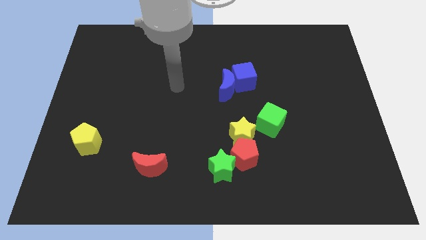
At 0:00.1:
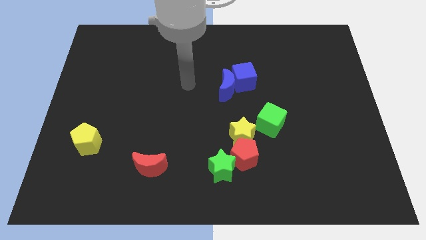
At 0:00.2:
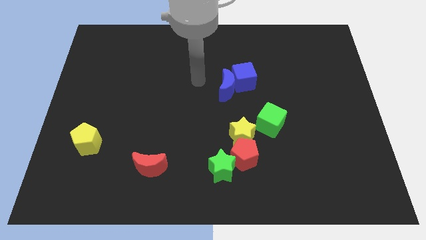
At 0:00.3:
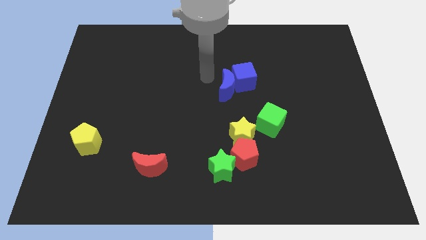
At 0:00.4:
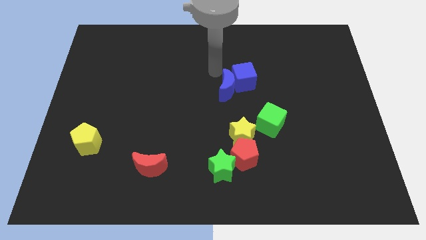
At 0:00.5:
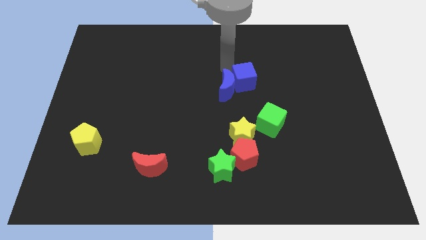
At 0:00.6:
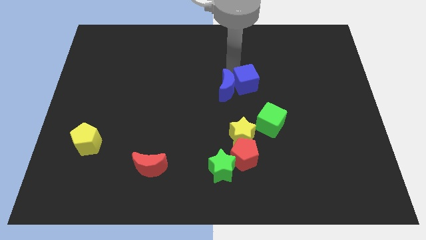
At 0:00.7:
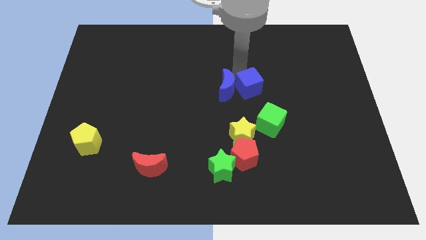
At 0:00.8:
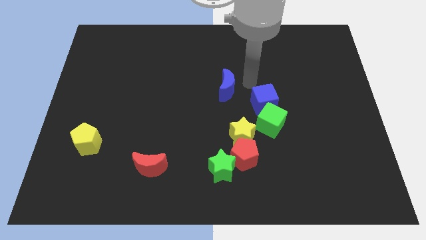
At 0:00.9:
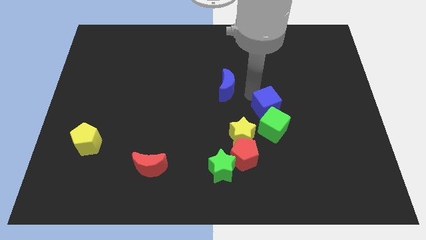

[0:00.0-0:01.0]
move the blue moon away from the blue cube

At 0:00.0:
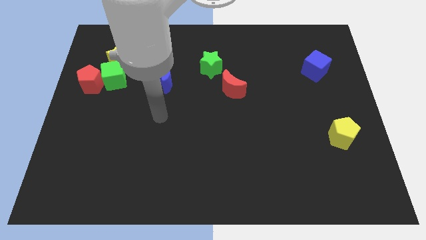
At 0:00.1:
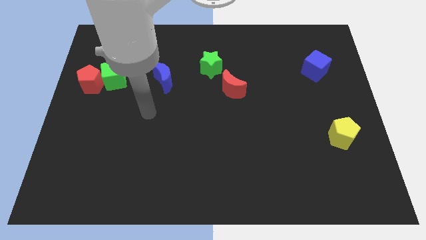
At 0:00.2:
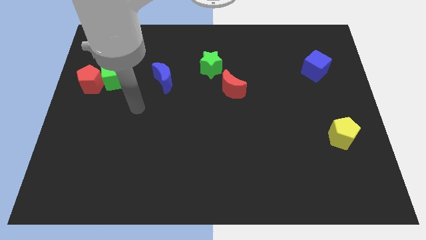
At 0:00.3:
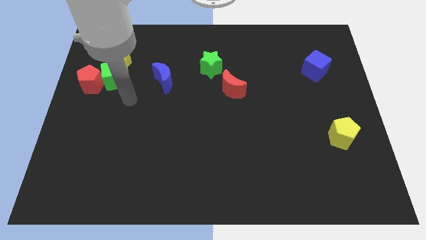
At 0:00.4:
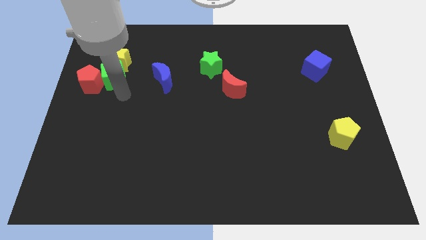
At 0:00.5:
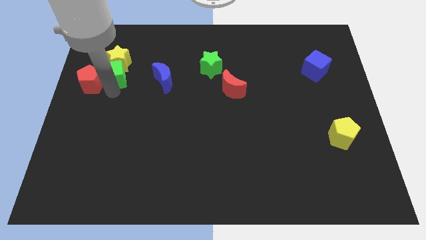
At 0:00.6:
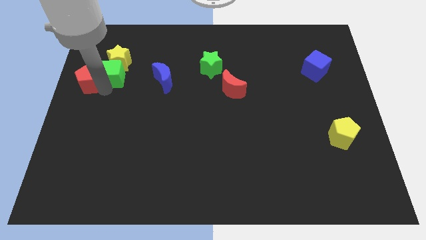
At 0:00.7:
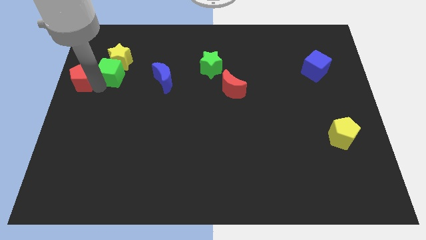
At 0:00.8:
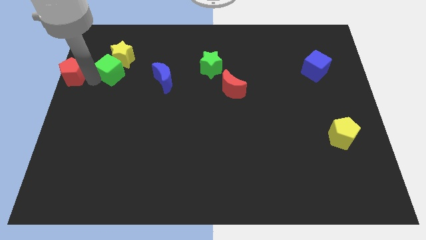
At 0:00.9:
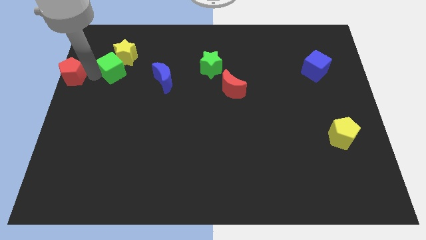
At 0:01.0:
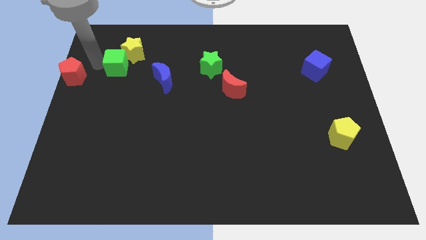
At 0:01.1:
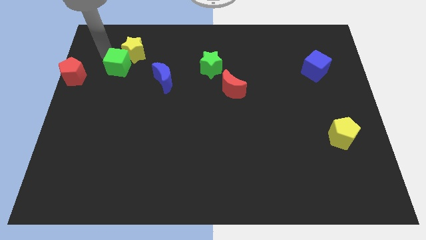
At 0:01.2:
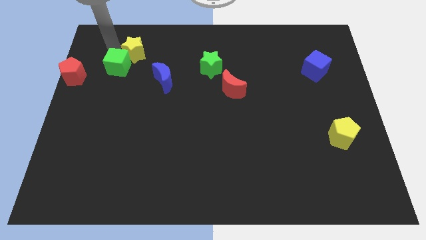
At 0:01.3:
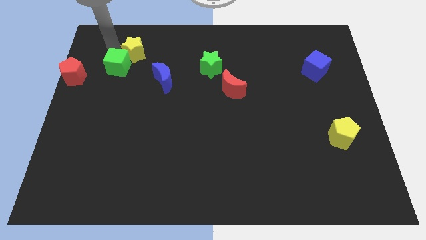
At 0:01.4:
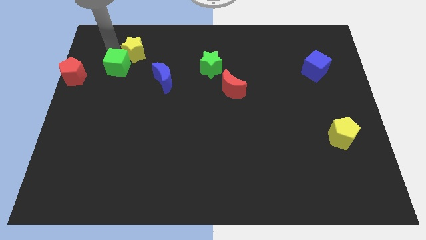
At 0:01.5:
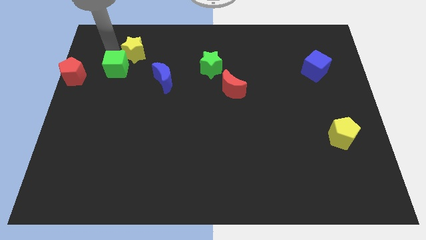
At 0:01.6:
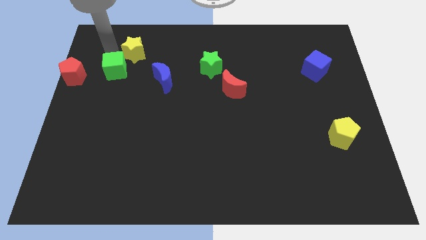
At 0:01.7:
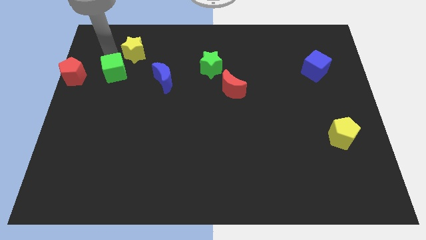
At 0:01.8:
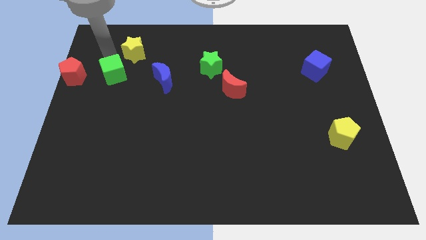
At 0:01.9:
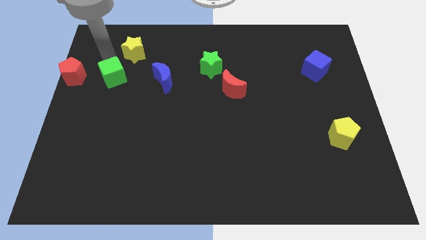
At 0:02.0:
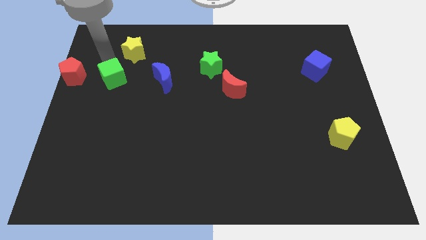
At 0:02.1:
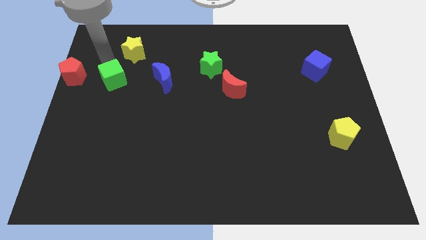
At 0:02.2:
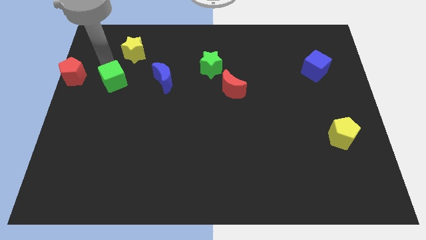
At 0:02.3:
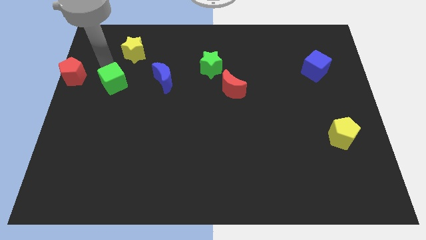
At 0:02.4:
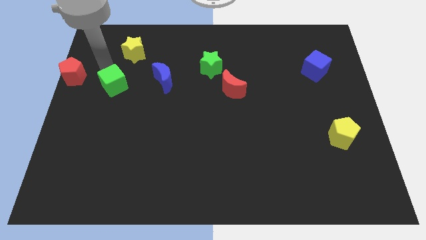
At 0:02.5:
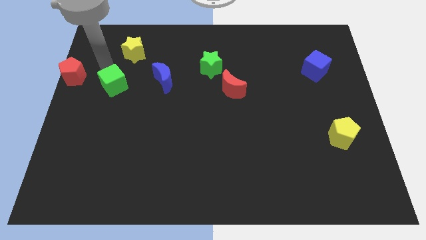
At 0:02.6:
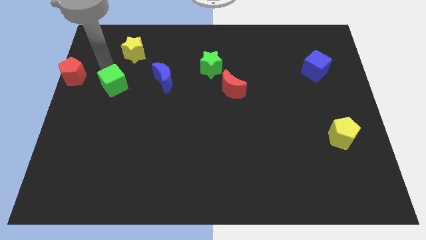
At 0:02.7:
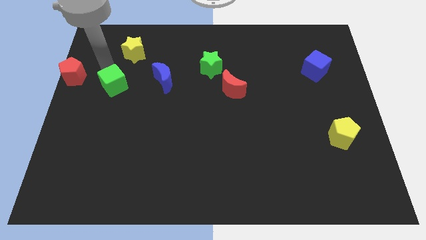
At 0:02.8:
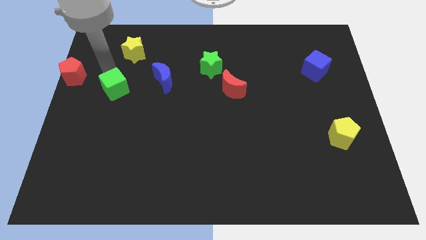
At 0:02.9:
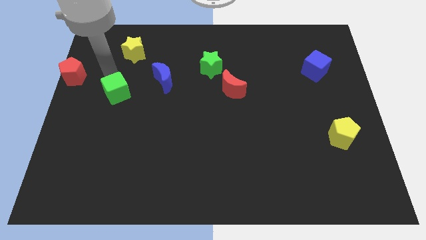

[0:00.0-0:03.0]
pull the green cube apart from the yellow star and red pentagon

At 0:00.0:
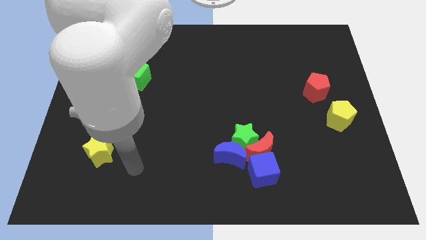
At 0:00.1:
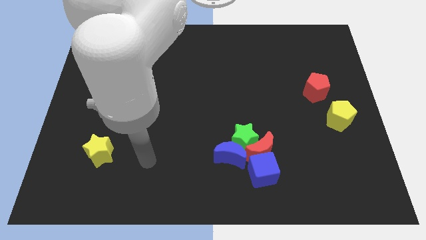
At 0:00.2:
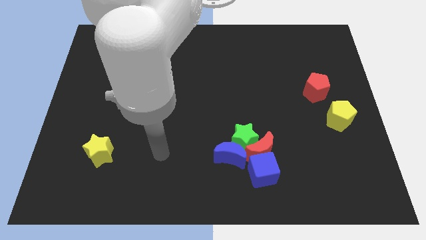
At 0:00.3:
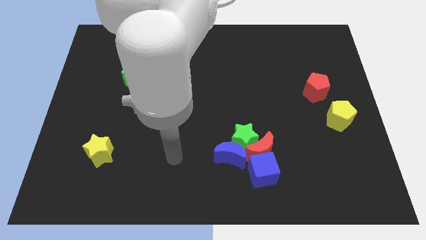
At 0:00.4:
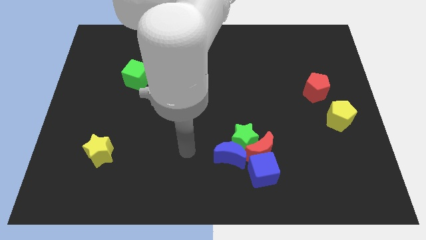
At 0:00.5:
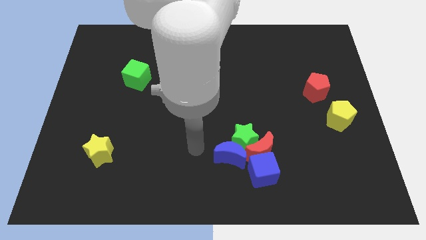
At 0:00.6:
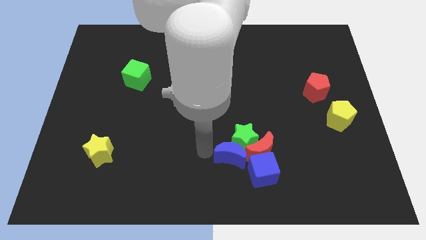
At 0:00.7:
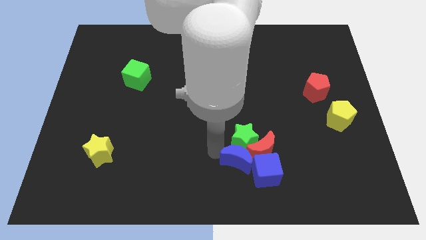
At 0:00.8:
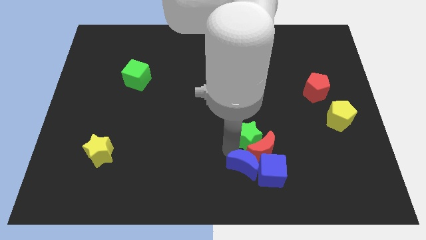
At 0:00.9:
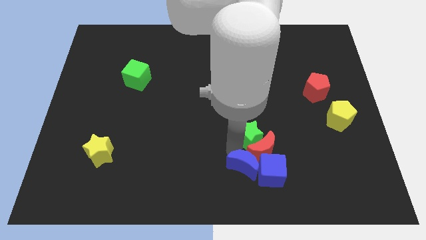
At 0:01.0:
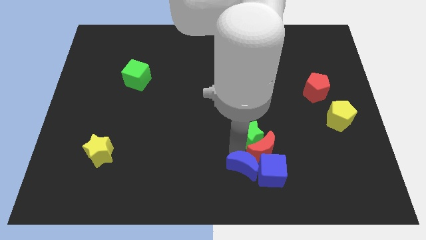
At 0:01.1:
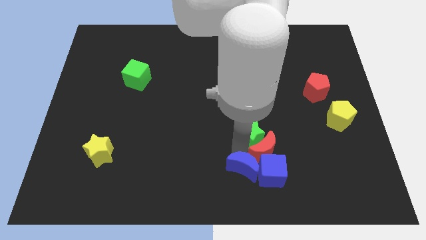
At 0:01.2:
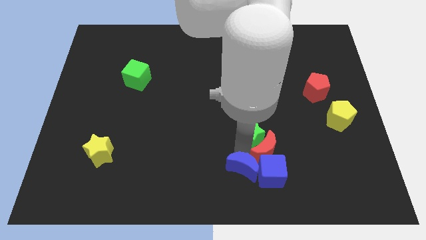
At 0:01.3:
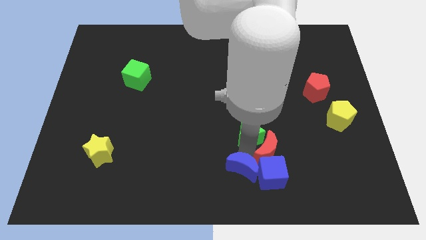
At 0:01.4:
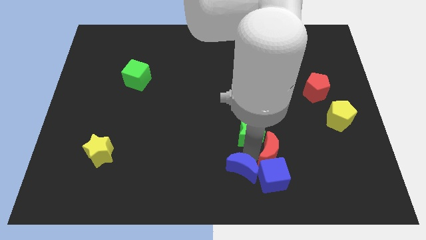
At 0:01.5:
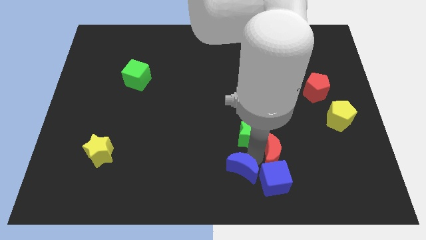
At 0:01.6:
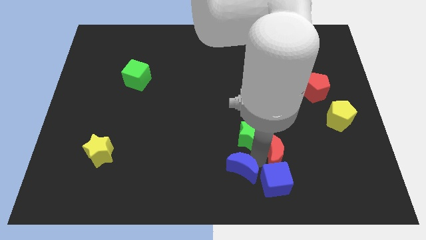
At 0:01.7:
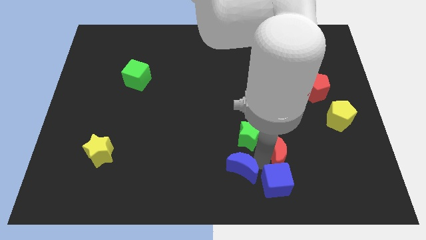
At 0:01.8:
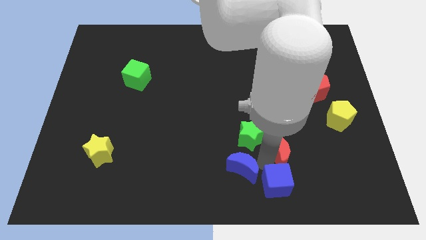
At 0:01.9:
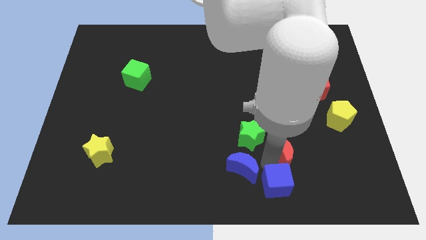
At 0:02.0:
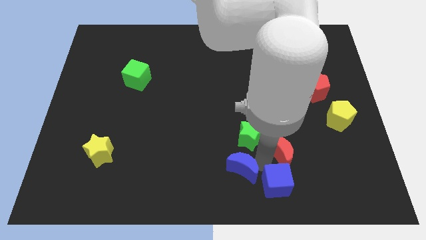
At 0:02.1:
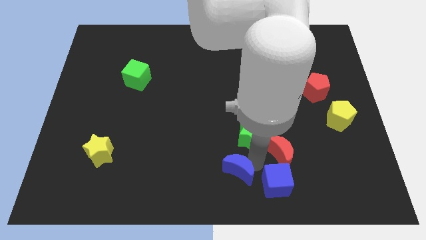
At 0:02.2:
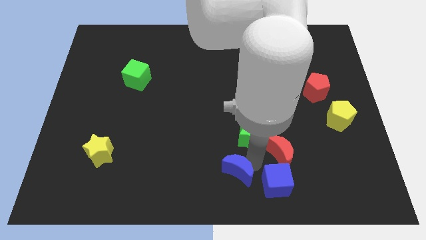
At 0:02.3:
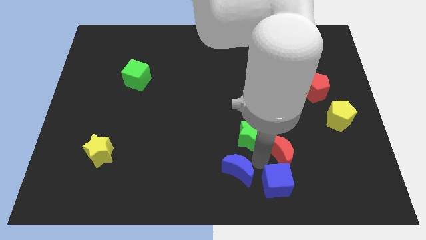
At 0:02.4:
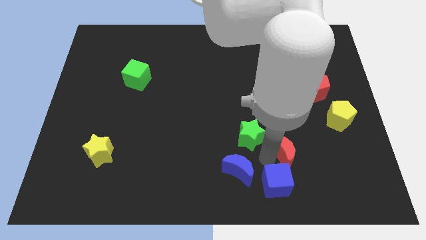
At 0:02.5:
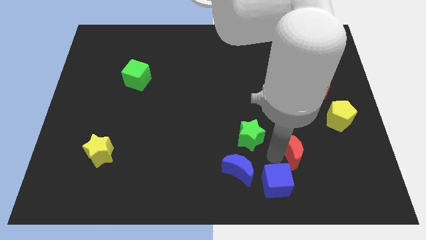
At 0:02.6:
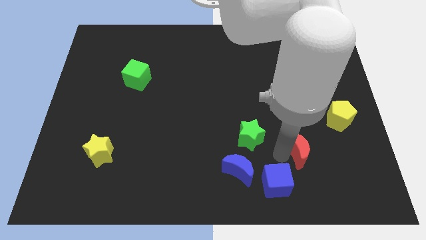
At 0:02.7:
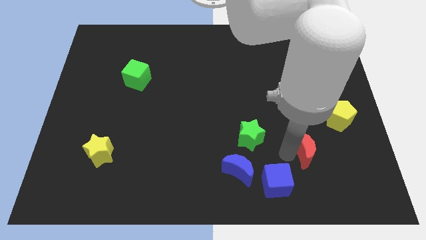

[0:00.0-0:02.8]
pull the red moon apart from the green star, blue cube, and blue moon

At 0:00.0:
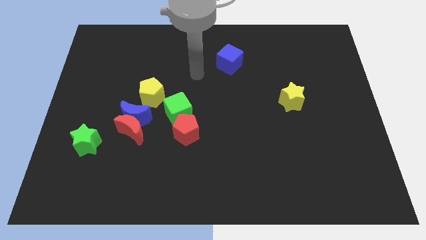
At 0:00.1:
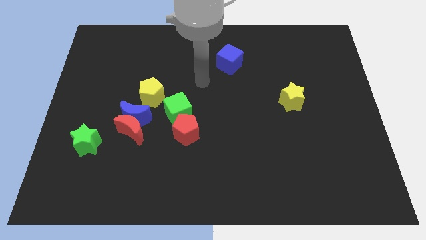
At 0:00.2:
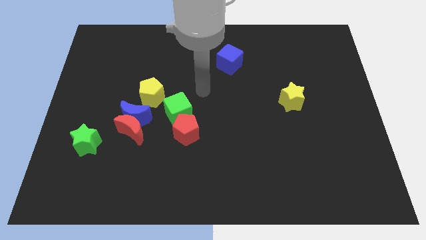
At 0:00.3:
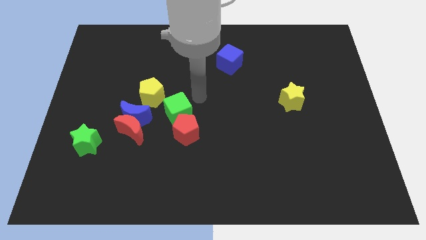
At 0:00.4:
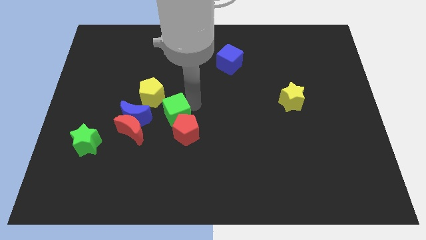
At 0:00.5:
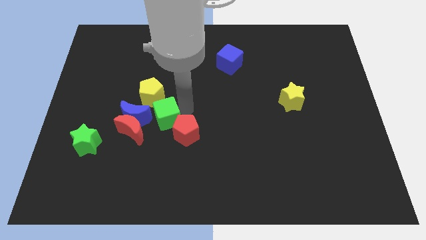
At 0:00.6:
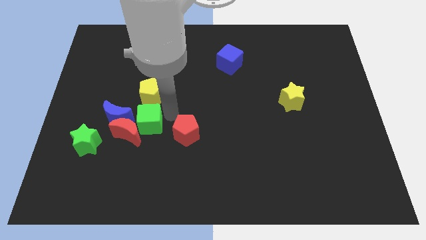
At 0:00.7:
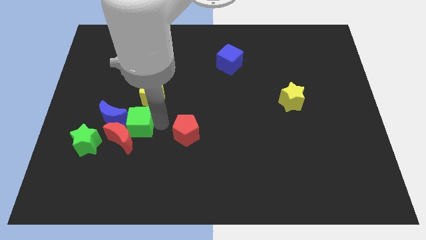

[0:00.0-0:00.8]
move the red pentagon away from the green cube

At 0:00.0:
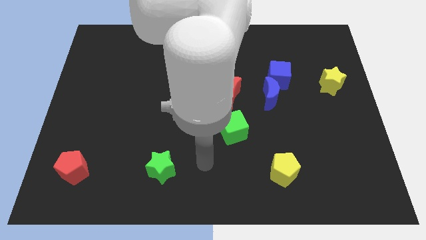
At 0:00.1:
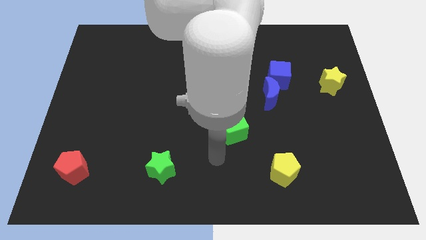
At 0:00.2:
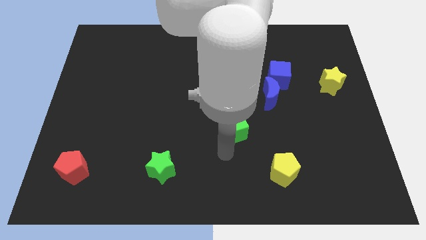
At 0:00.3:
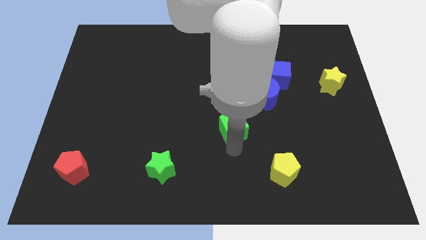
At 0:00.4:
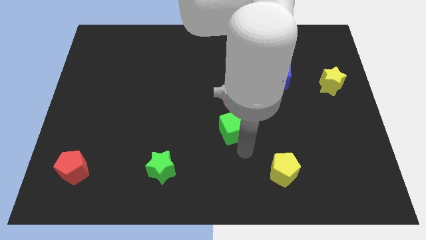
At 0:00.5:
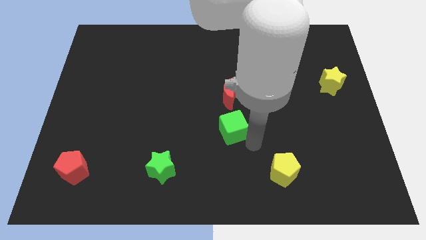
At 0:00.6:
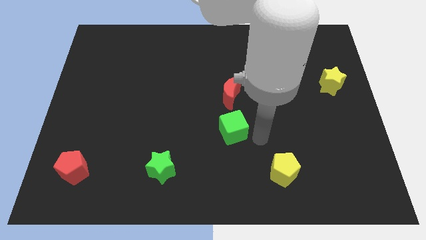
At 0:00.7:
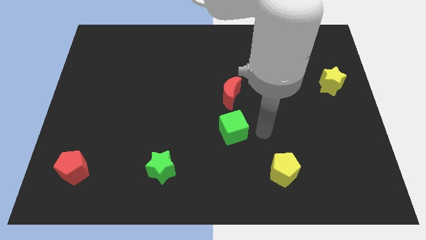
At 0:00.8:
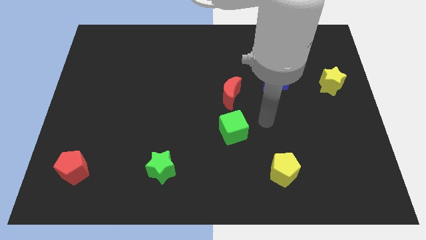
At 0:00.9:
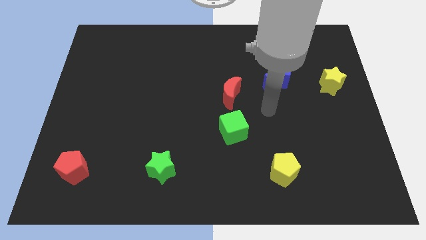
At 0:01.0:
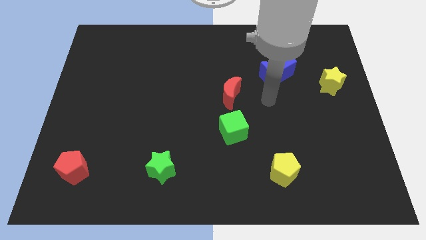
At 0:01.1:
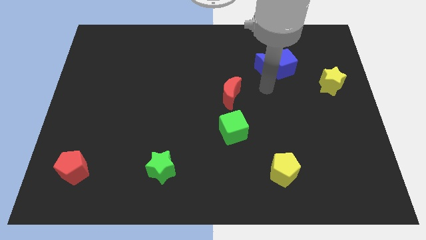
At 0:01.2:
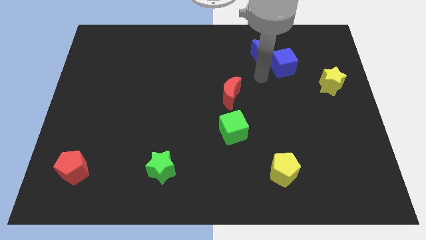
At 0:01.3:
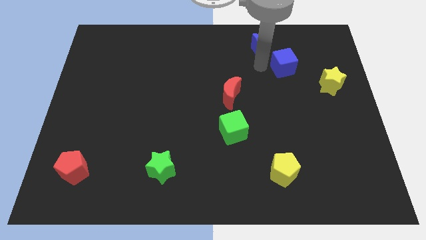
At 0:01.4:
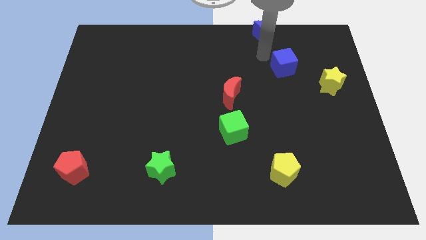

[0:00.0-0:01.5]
move the blue cube away from the blue moon

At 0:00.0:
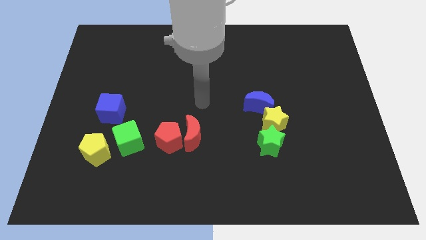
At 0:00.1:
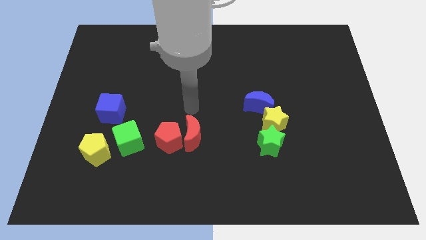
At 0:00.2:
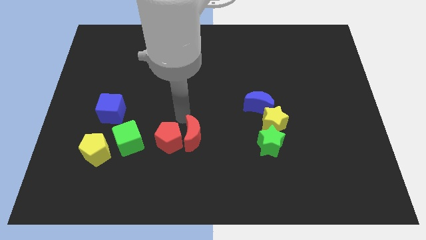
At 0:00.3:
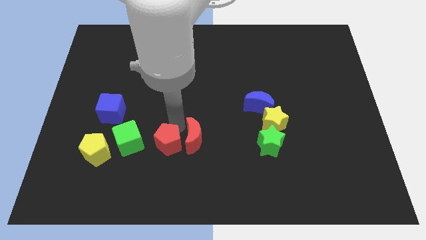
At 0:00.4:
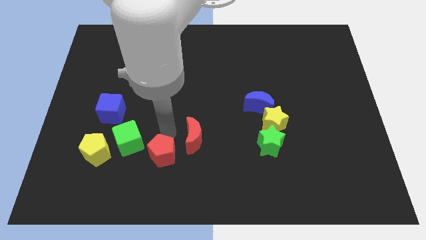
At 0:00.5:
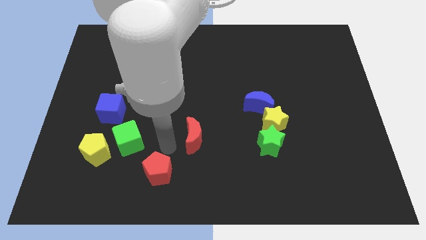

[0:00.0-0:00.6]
separate the red moon from the red pentagon
